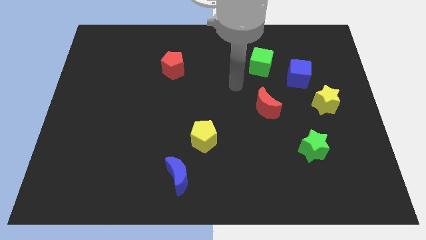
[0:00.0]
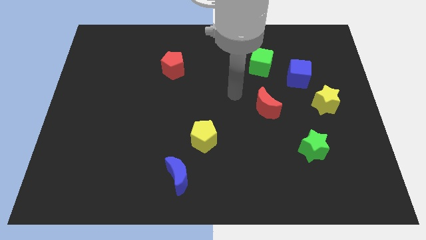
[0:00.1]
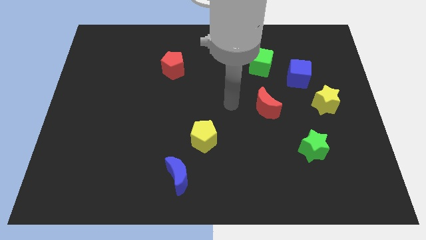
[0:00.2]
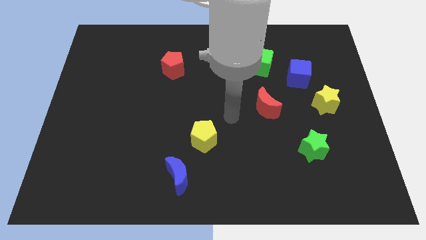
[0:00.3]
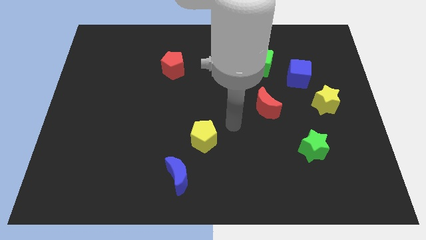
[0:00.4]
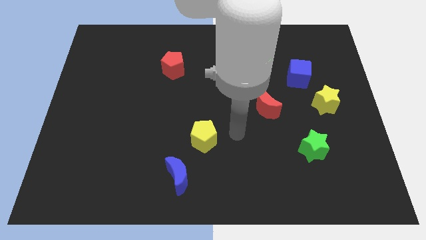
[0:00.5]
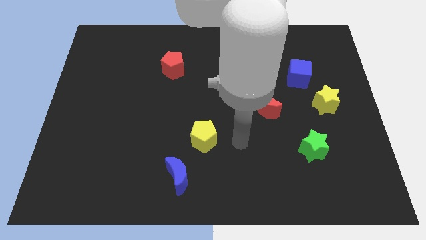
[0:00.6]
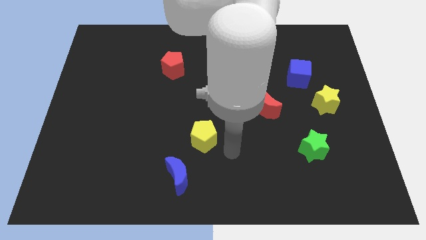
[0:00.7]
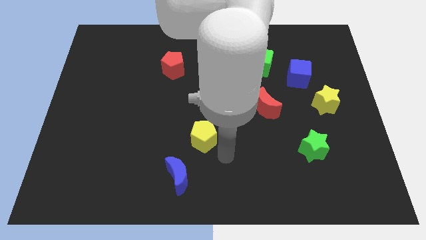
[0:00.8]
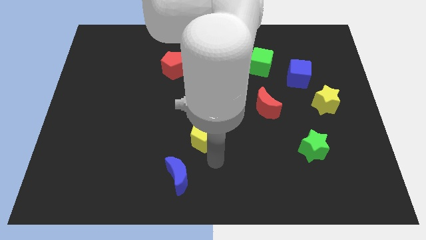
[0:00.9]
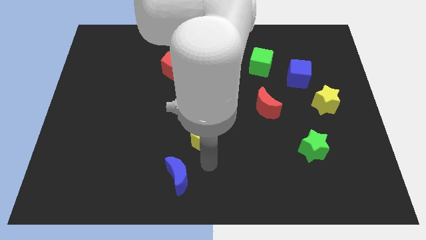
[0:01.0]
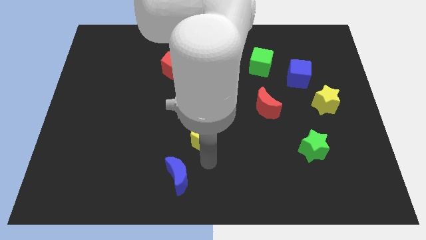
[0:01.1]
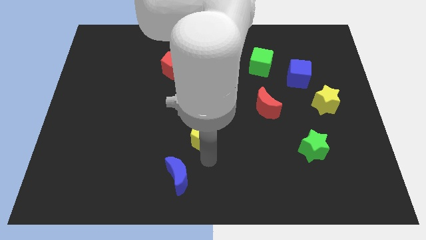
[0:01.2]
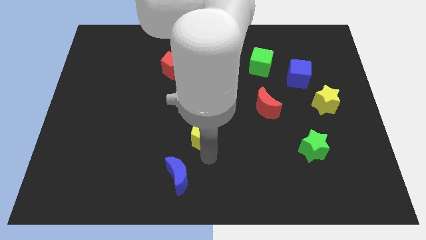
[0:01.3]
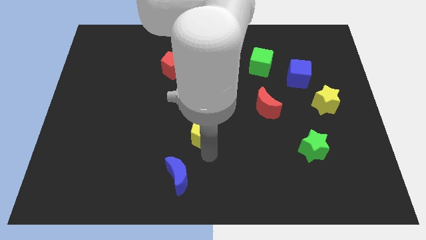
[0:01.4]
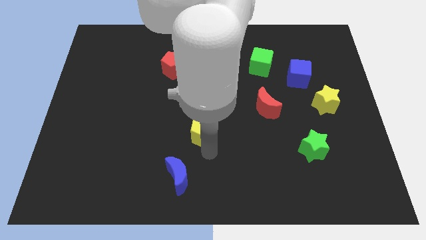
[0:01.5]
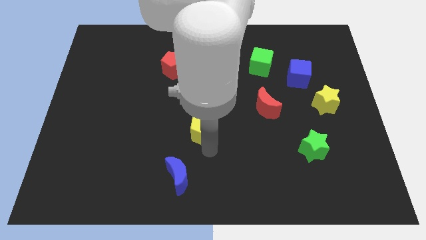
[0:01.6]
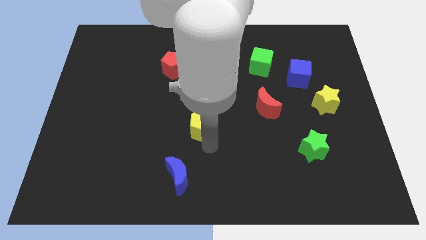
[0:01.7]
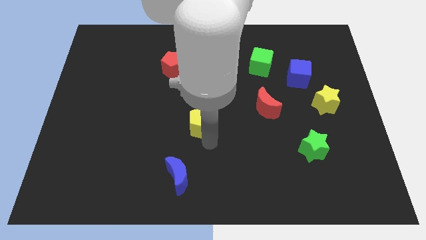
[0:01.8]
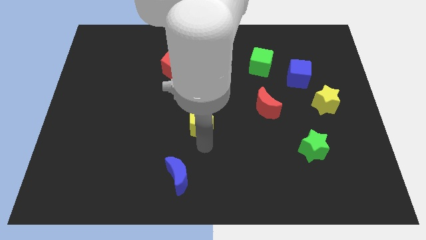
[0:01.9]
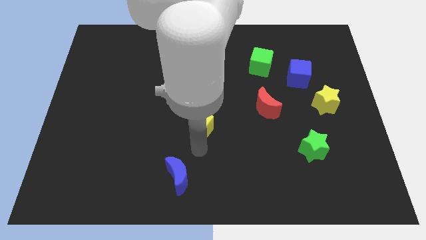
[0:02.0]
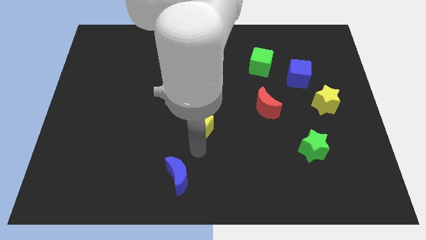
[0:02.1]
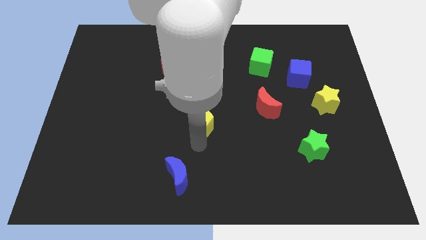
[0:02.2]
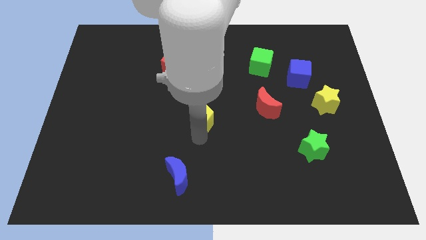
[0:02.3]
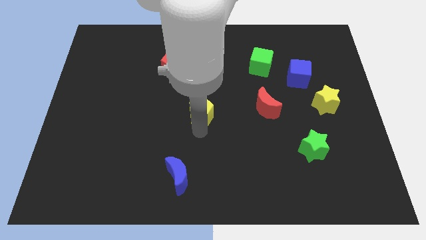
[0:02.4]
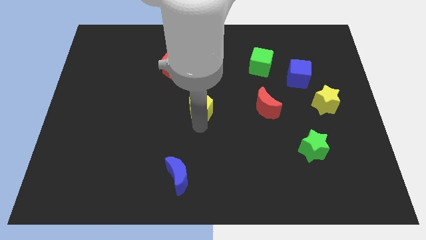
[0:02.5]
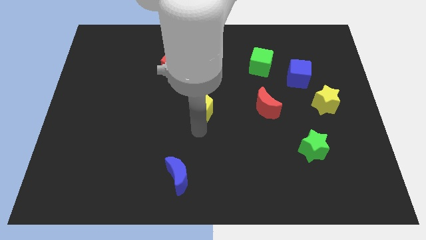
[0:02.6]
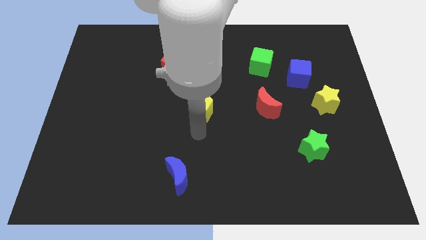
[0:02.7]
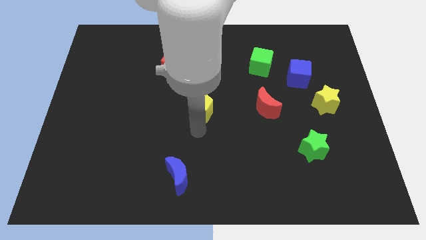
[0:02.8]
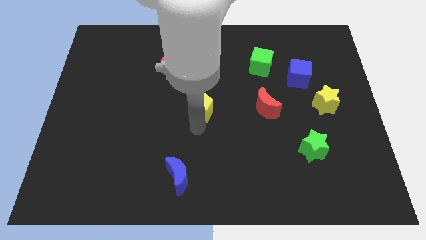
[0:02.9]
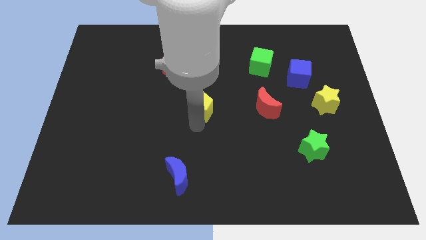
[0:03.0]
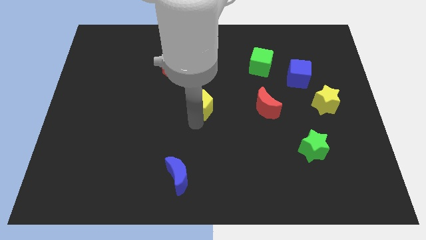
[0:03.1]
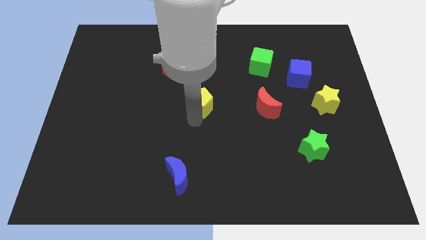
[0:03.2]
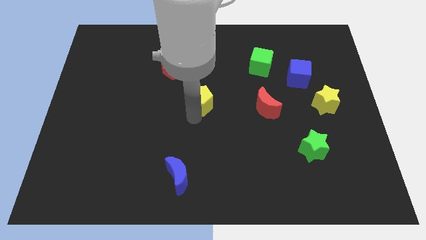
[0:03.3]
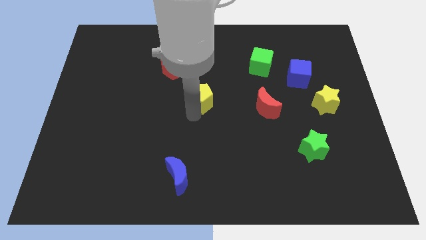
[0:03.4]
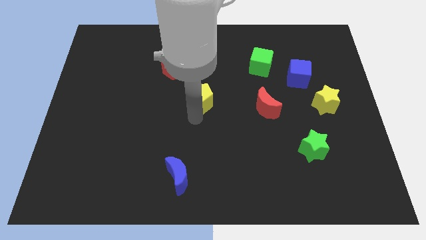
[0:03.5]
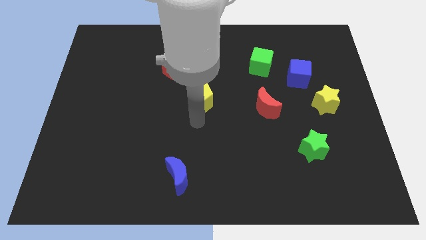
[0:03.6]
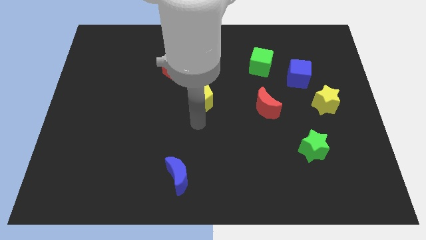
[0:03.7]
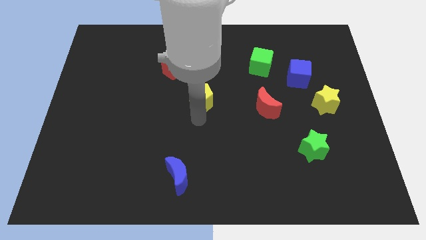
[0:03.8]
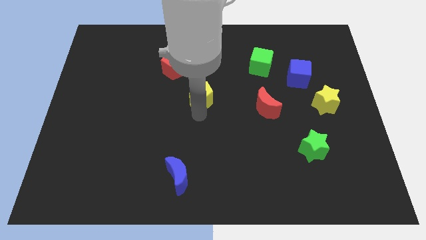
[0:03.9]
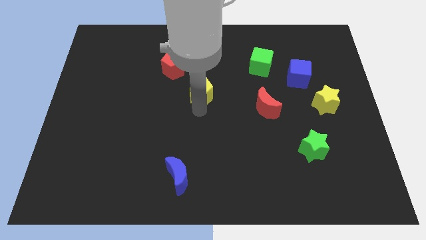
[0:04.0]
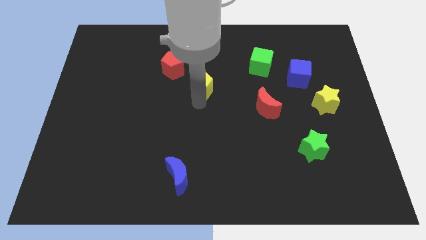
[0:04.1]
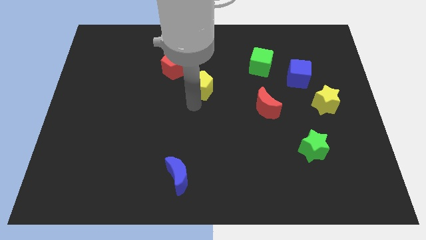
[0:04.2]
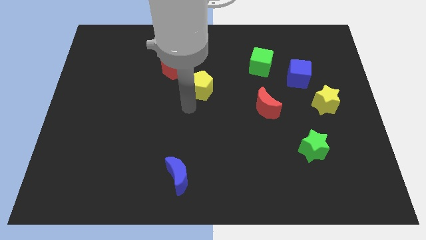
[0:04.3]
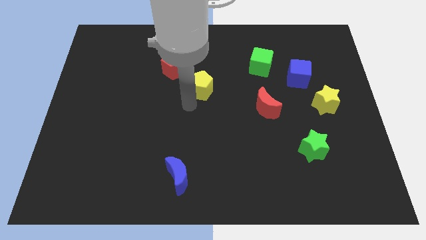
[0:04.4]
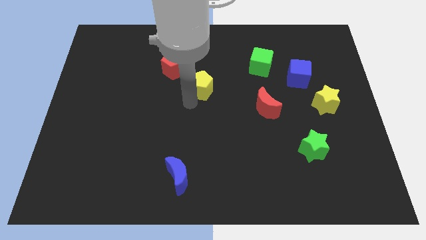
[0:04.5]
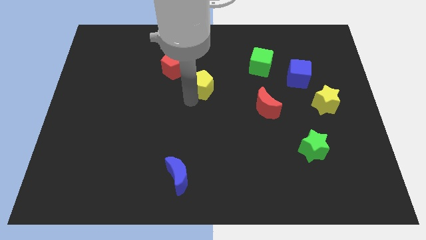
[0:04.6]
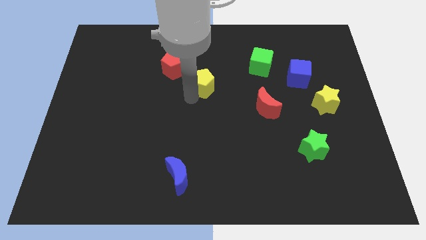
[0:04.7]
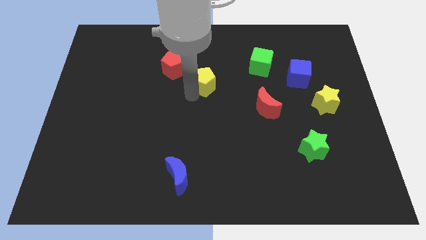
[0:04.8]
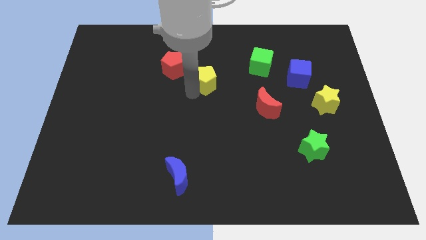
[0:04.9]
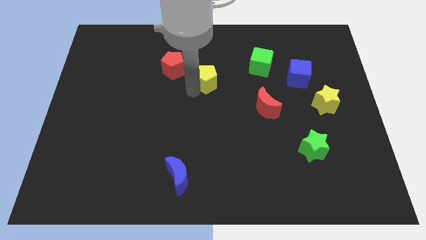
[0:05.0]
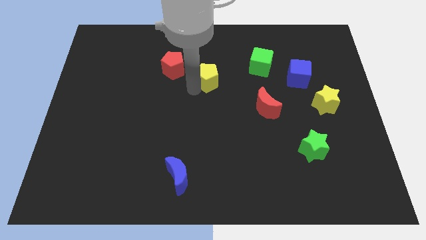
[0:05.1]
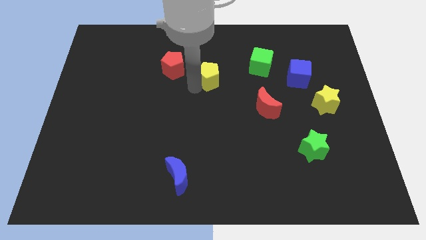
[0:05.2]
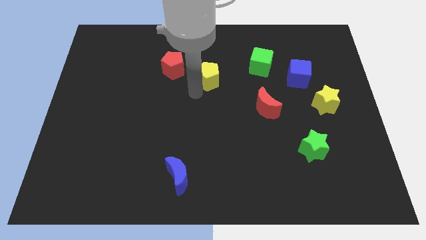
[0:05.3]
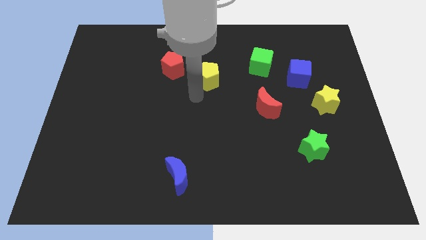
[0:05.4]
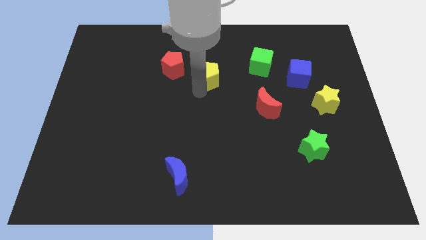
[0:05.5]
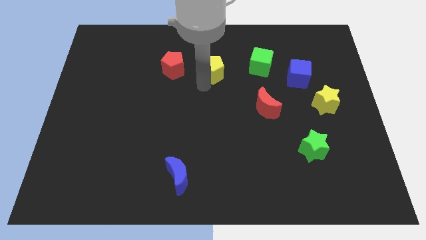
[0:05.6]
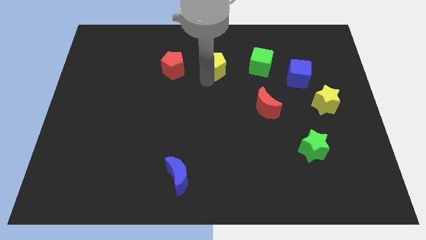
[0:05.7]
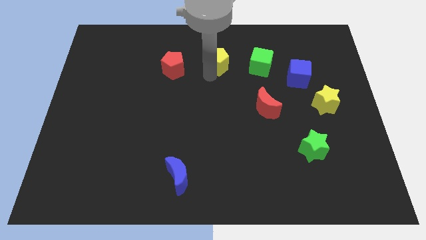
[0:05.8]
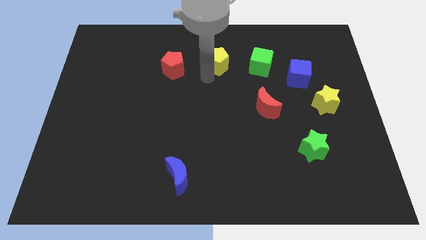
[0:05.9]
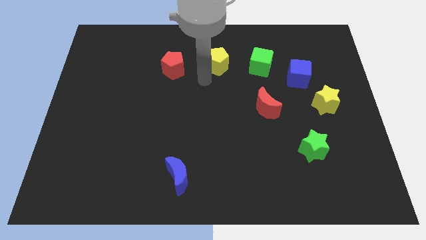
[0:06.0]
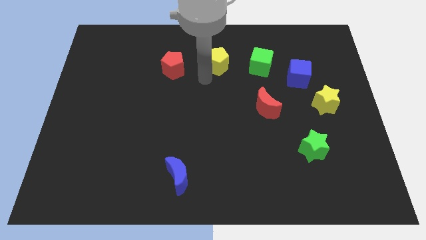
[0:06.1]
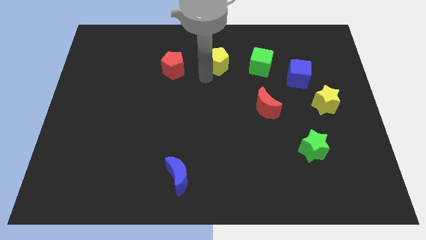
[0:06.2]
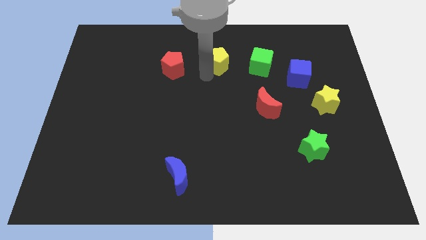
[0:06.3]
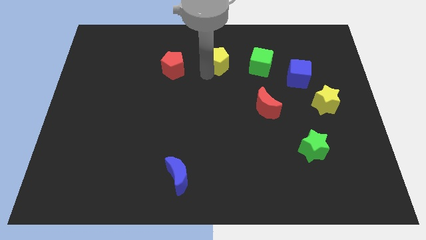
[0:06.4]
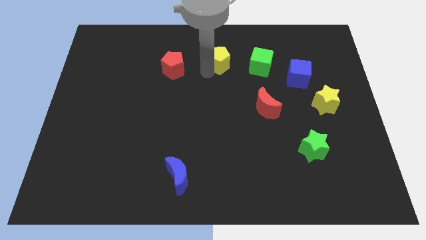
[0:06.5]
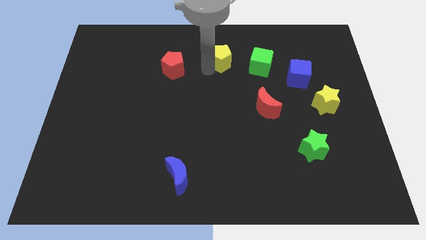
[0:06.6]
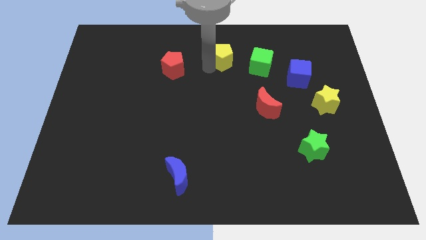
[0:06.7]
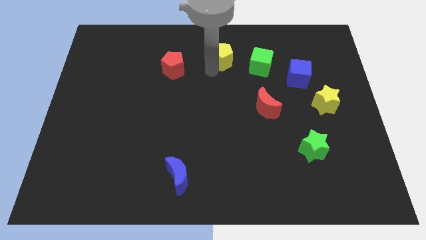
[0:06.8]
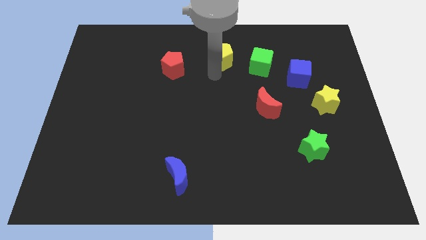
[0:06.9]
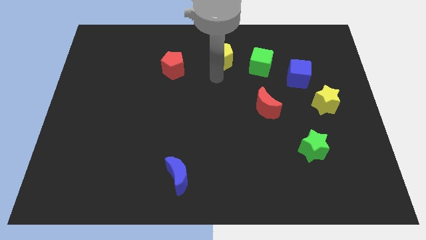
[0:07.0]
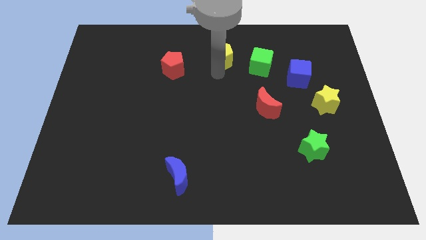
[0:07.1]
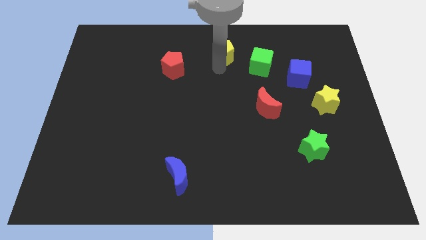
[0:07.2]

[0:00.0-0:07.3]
move the yellow pentagon to the top side
